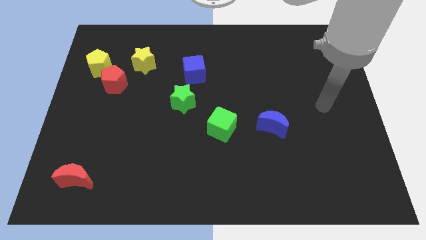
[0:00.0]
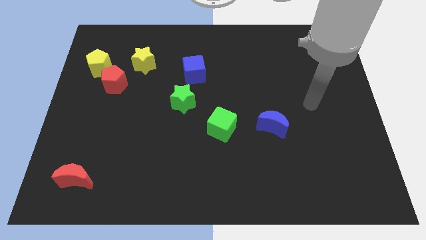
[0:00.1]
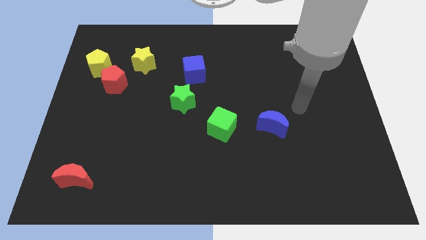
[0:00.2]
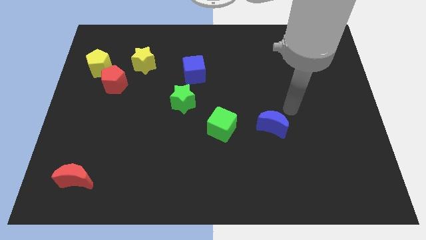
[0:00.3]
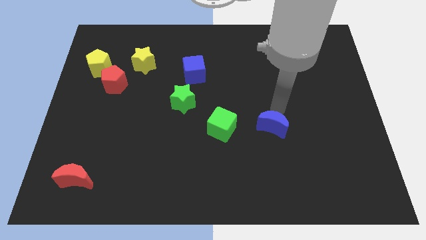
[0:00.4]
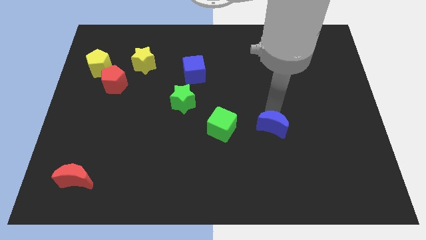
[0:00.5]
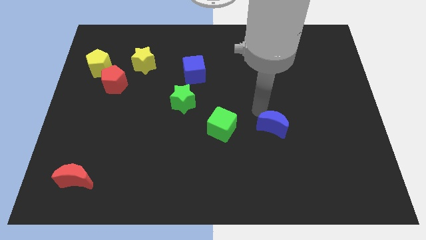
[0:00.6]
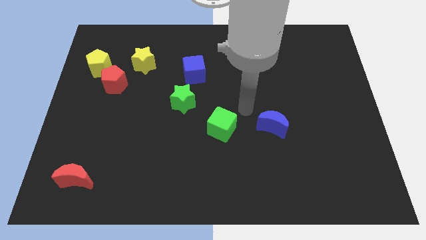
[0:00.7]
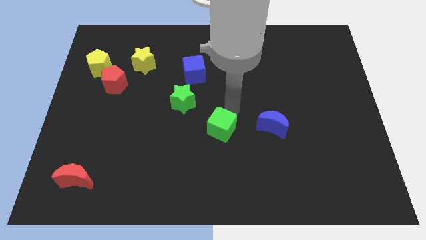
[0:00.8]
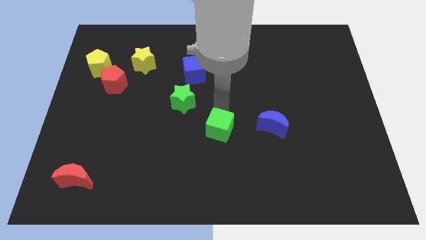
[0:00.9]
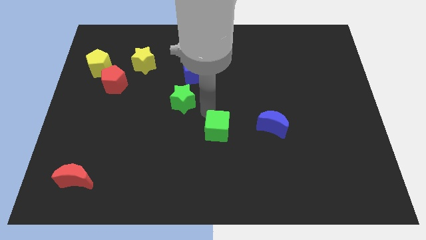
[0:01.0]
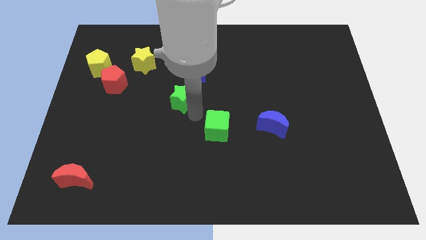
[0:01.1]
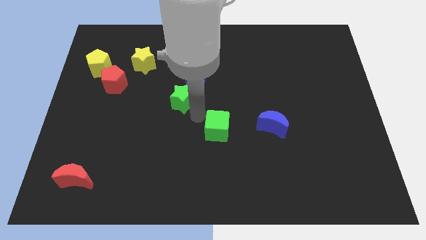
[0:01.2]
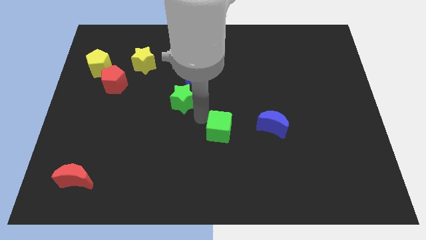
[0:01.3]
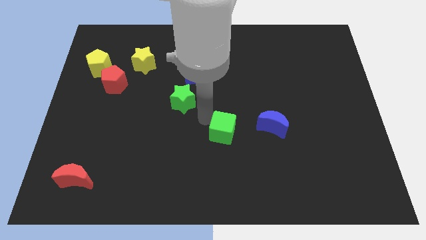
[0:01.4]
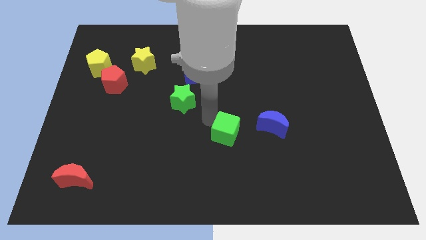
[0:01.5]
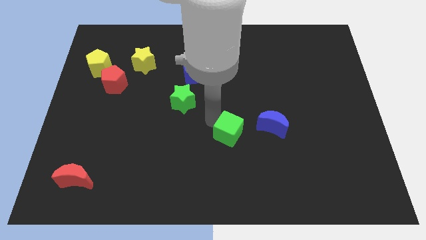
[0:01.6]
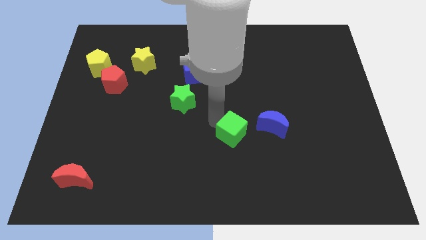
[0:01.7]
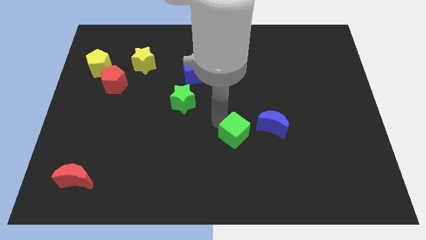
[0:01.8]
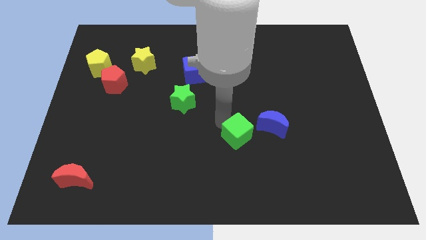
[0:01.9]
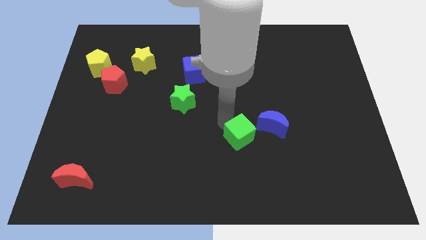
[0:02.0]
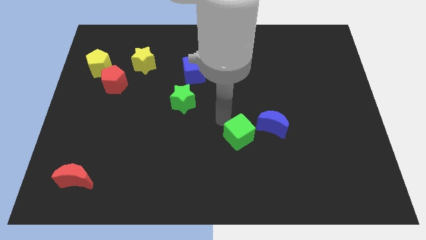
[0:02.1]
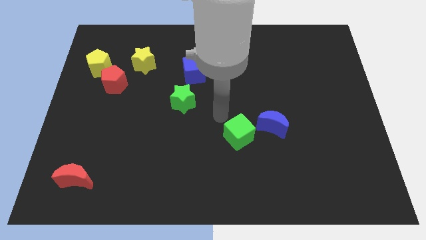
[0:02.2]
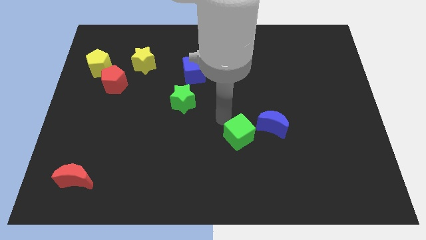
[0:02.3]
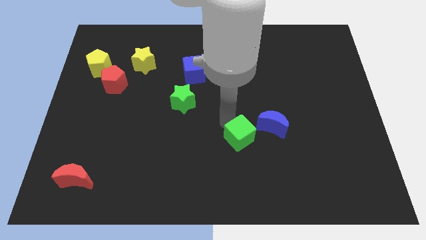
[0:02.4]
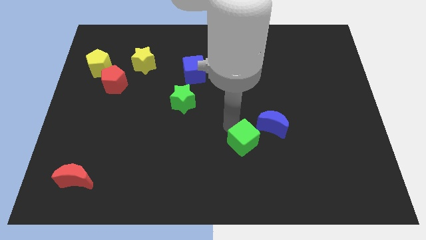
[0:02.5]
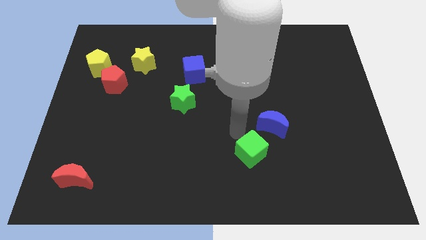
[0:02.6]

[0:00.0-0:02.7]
move the green cube downwards and to the right diagonally somewhat

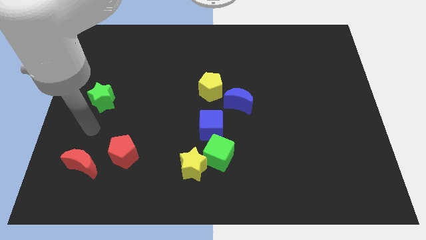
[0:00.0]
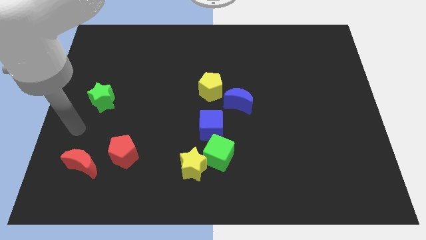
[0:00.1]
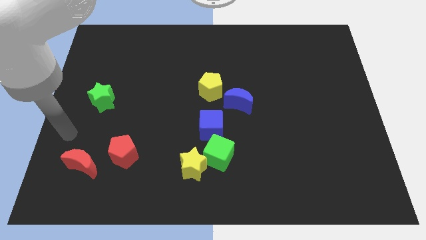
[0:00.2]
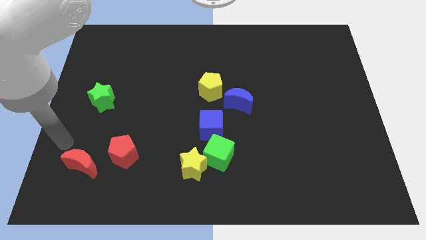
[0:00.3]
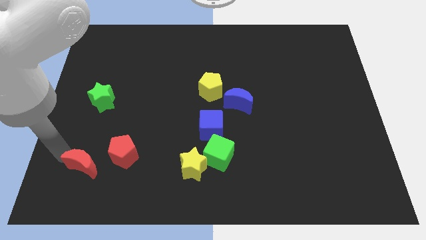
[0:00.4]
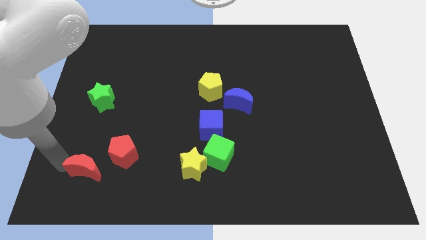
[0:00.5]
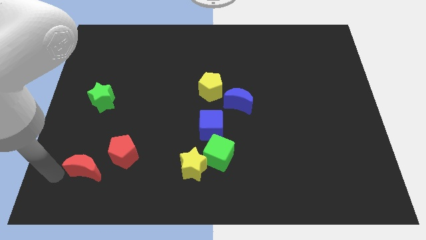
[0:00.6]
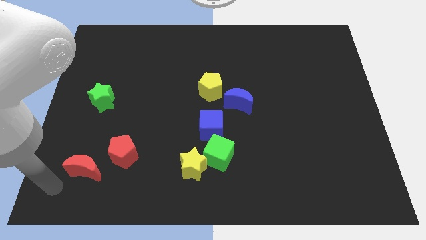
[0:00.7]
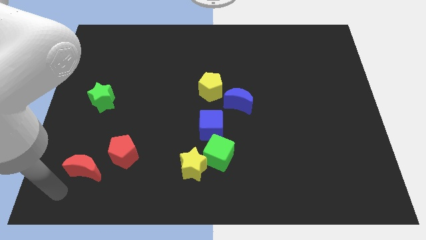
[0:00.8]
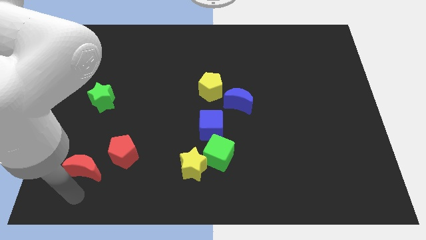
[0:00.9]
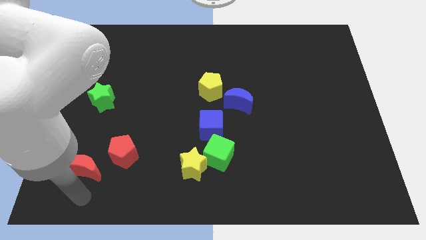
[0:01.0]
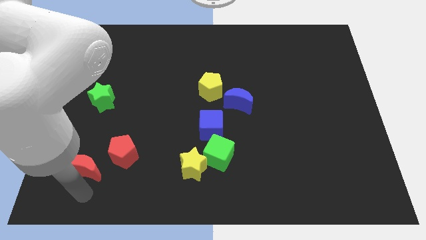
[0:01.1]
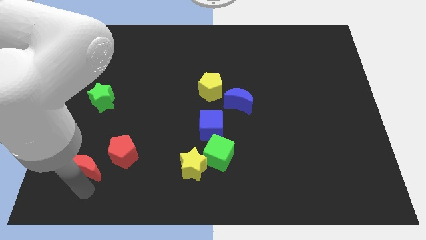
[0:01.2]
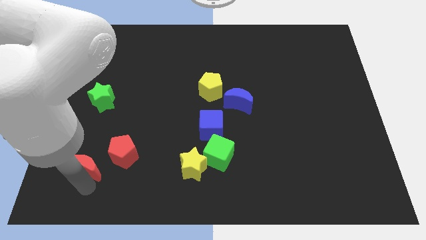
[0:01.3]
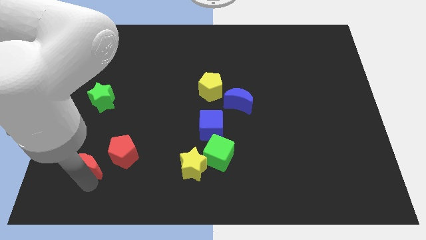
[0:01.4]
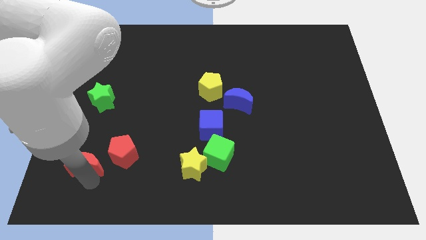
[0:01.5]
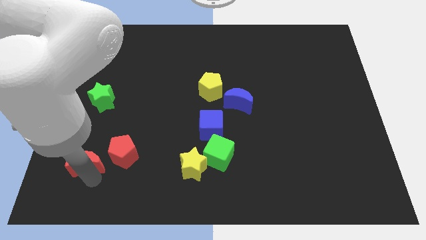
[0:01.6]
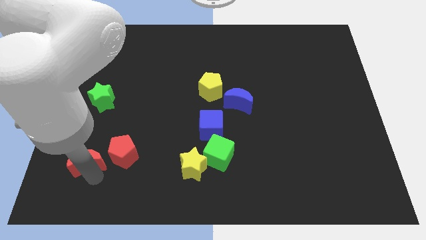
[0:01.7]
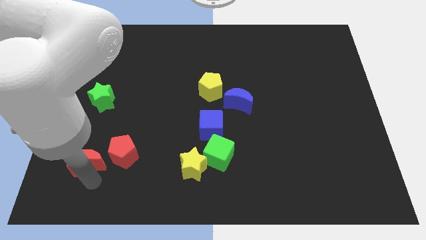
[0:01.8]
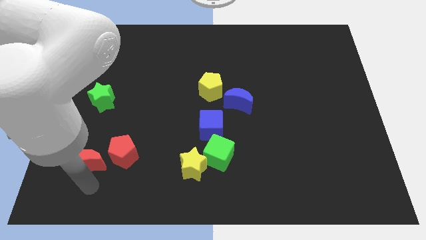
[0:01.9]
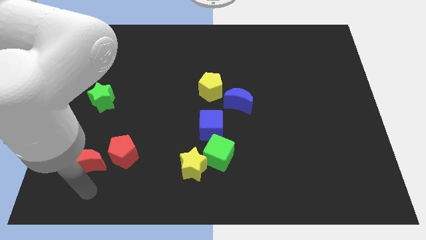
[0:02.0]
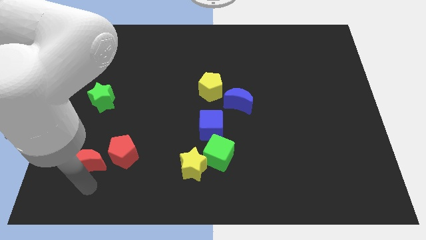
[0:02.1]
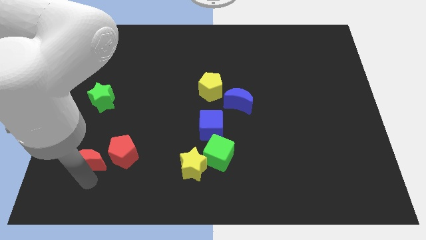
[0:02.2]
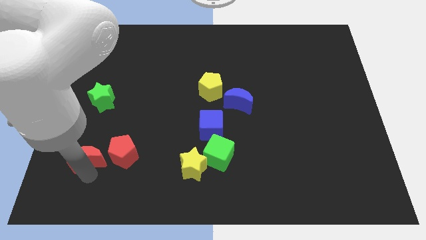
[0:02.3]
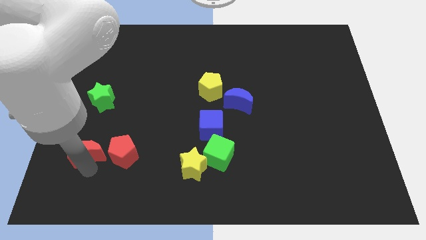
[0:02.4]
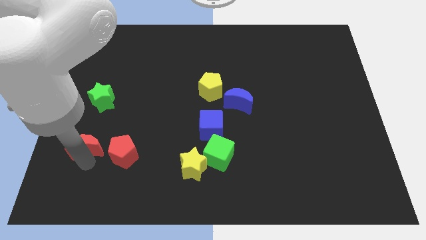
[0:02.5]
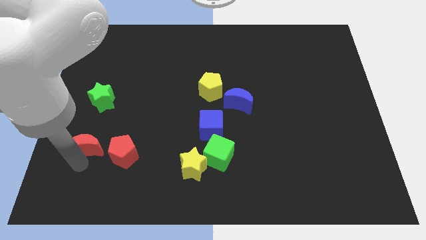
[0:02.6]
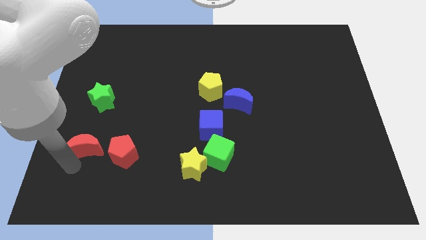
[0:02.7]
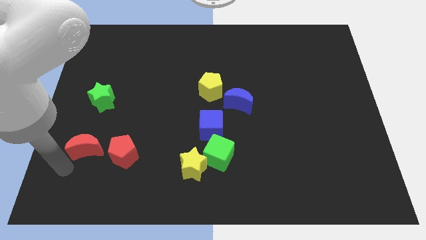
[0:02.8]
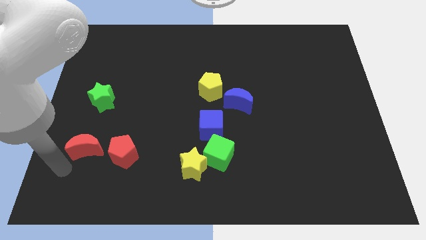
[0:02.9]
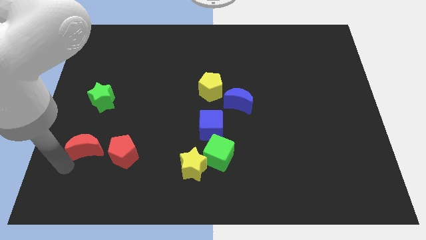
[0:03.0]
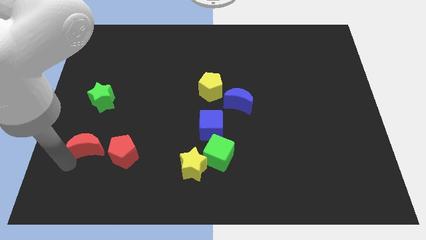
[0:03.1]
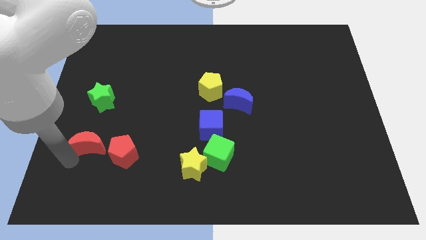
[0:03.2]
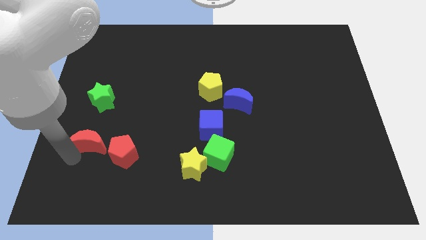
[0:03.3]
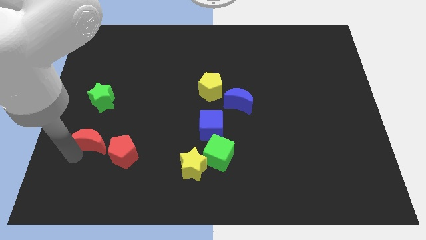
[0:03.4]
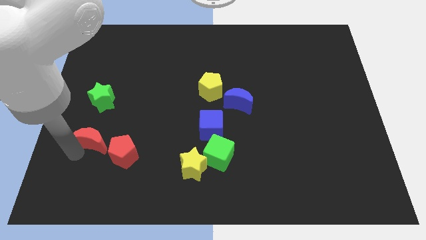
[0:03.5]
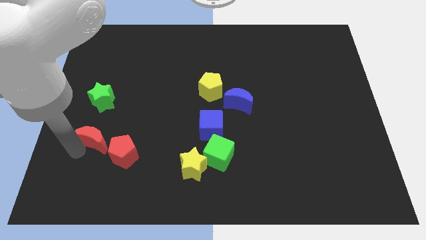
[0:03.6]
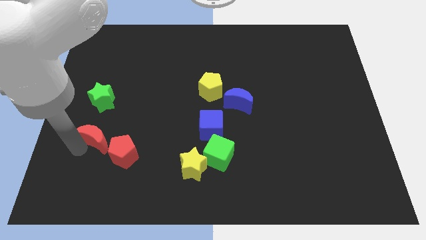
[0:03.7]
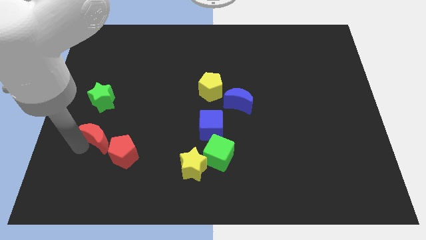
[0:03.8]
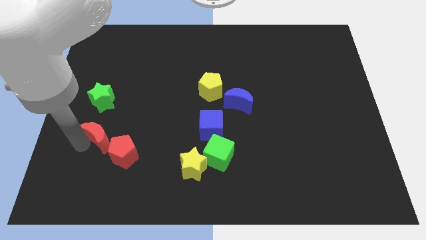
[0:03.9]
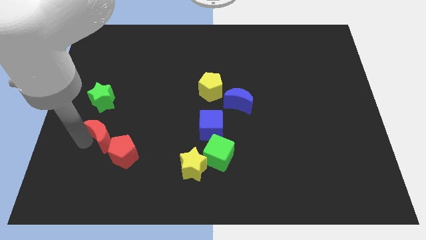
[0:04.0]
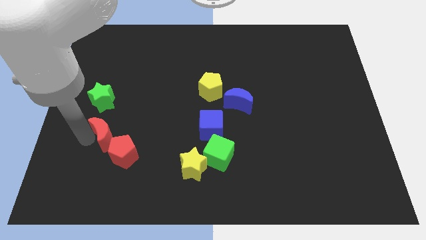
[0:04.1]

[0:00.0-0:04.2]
slide the red moon up and right diagonally a little bit

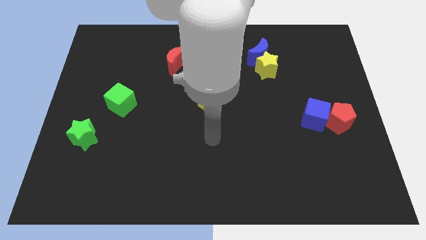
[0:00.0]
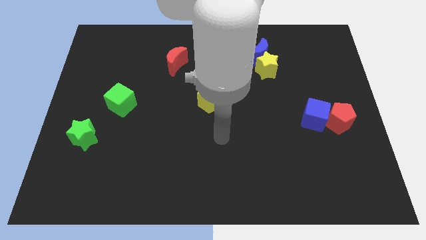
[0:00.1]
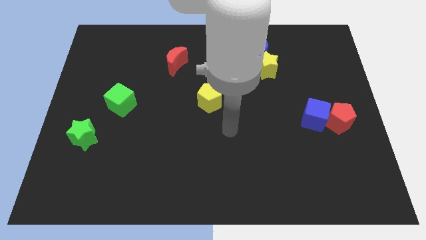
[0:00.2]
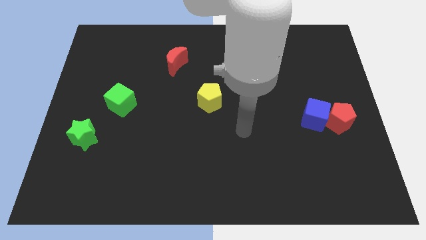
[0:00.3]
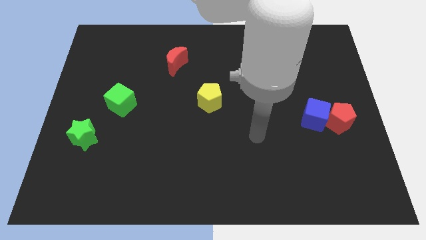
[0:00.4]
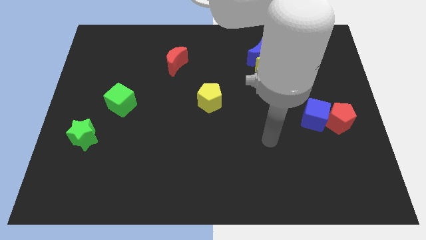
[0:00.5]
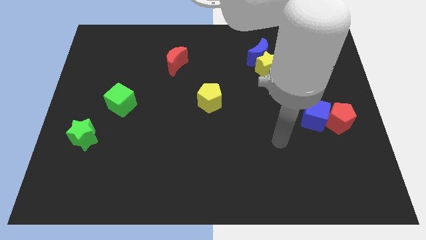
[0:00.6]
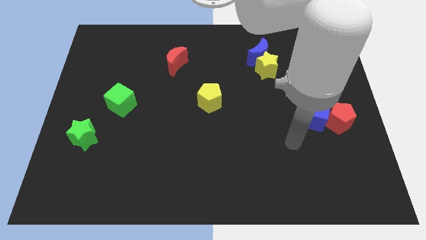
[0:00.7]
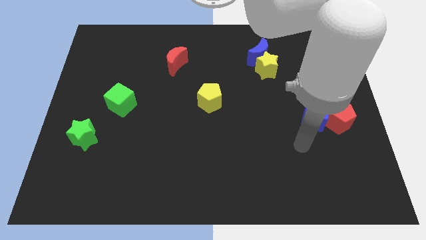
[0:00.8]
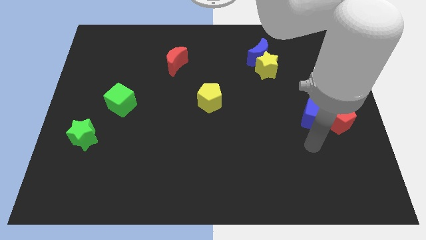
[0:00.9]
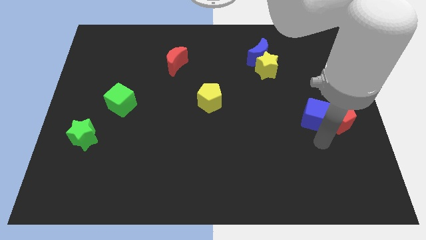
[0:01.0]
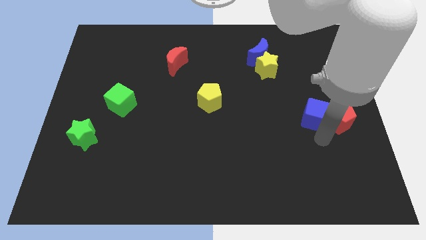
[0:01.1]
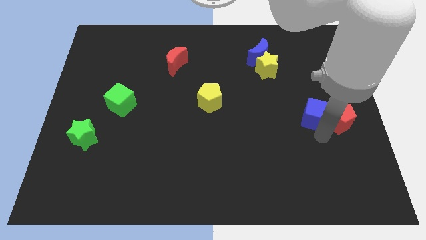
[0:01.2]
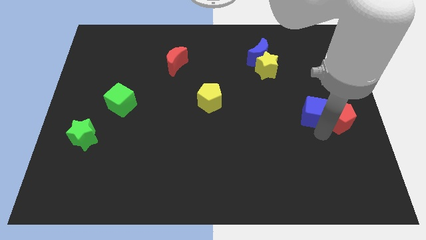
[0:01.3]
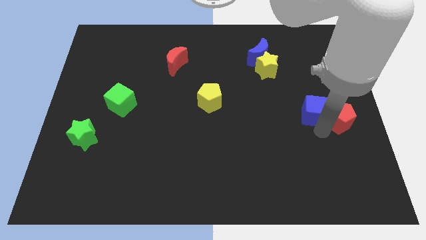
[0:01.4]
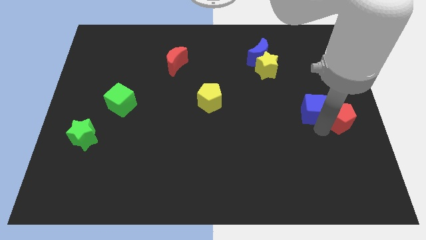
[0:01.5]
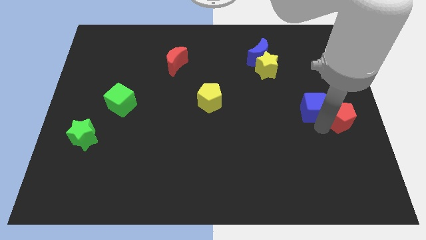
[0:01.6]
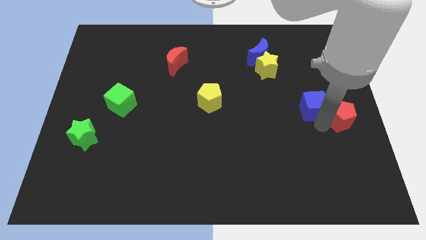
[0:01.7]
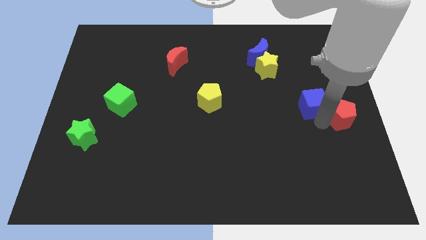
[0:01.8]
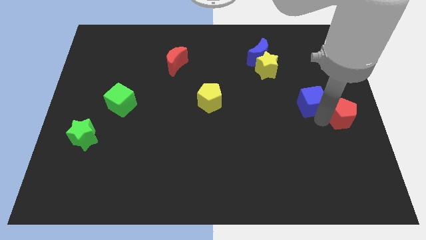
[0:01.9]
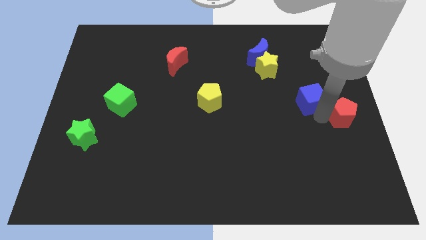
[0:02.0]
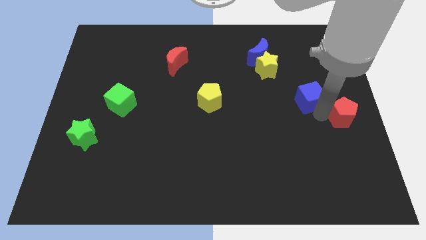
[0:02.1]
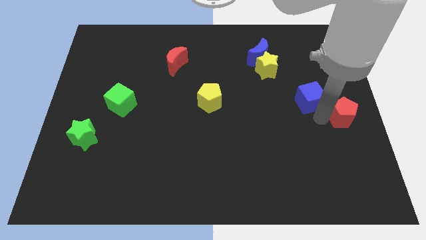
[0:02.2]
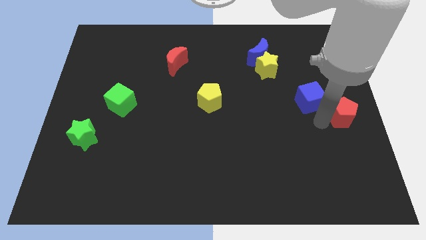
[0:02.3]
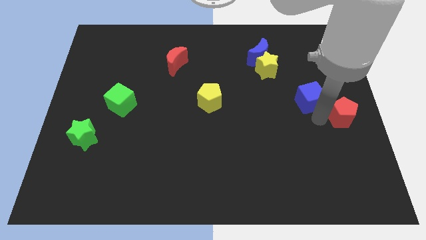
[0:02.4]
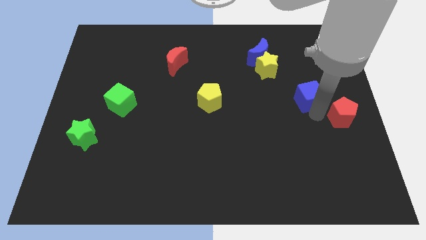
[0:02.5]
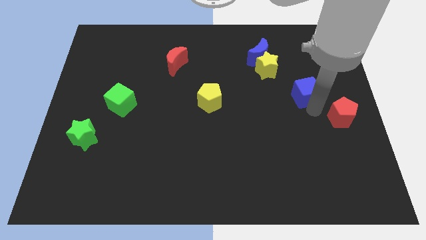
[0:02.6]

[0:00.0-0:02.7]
slightly slide the blue cube up
